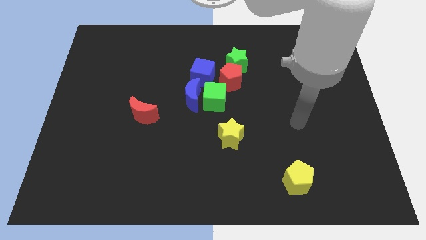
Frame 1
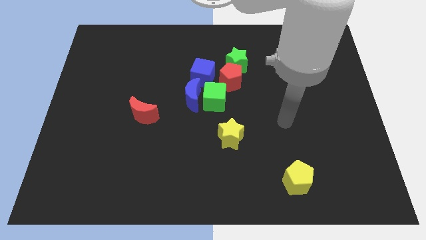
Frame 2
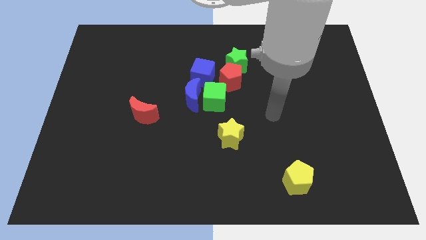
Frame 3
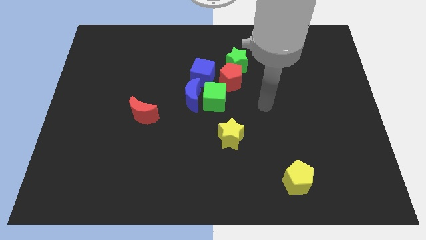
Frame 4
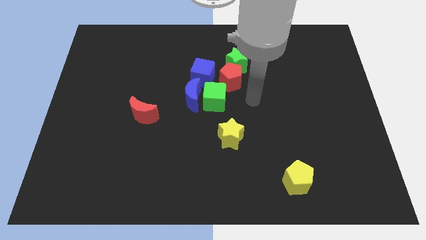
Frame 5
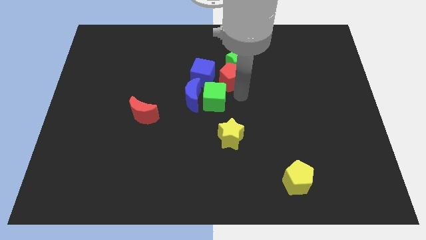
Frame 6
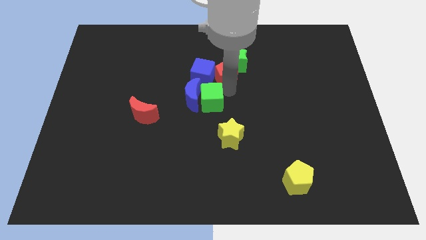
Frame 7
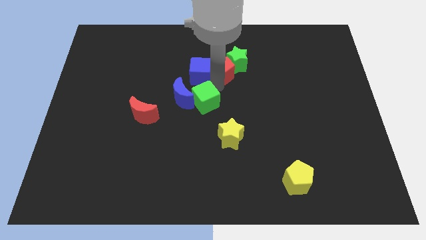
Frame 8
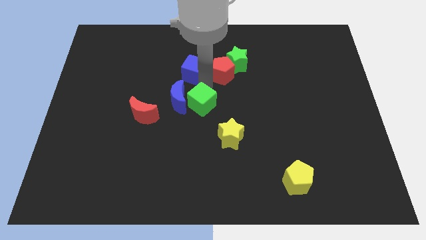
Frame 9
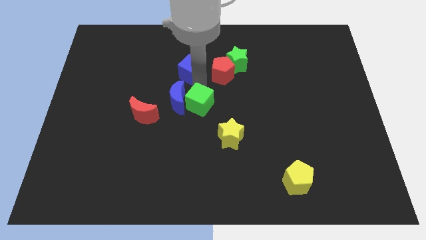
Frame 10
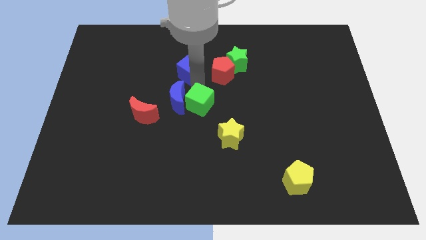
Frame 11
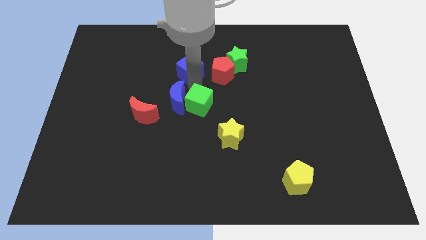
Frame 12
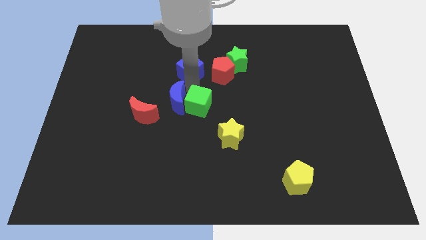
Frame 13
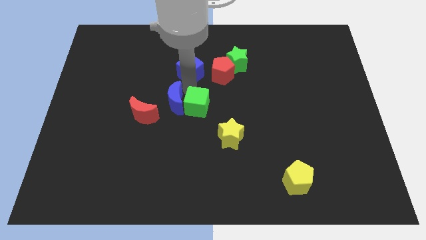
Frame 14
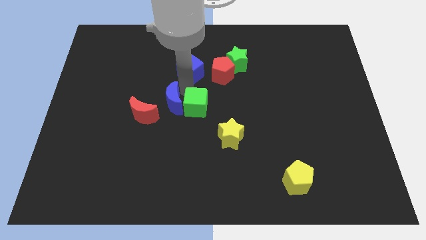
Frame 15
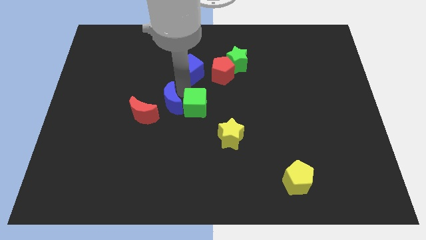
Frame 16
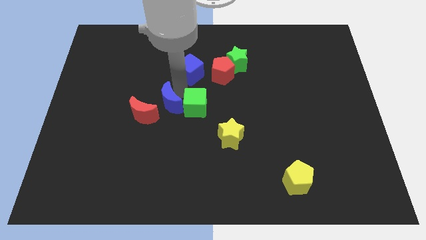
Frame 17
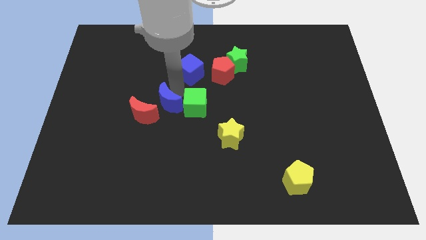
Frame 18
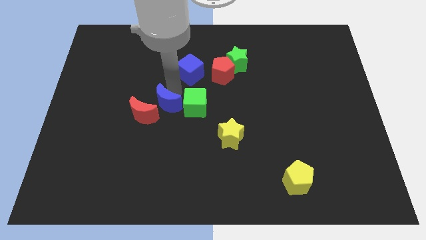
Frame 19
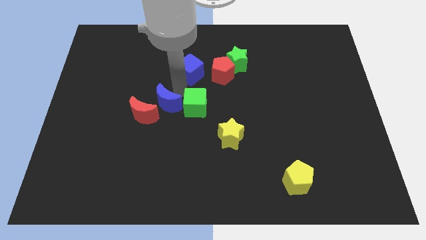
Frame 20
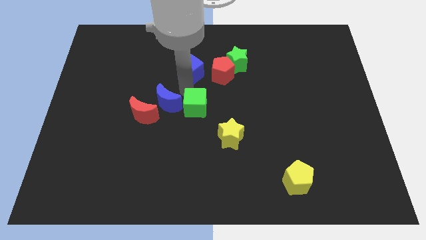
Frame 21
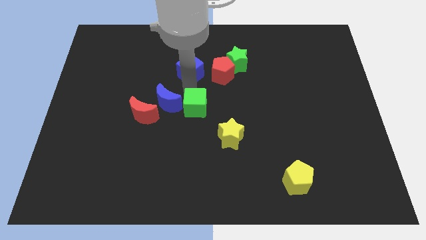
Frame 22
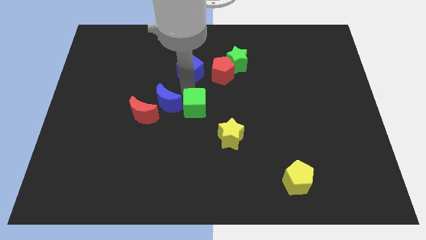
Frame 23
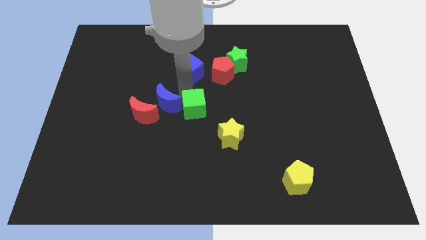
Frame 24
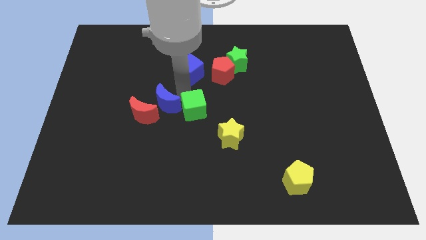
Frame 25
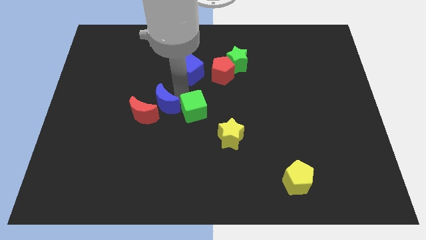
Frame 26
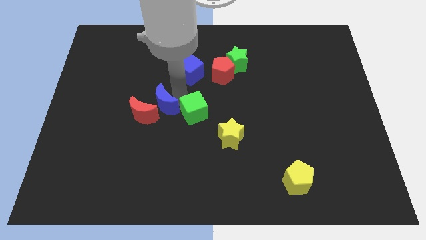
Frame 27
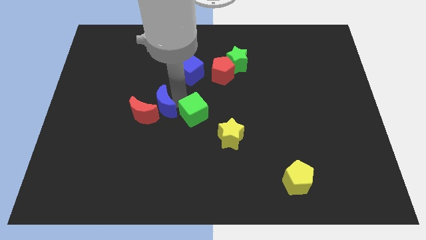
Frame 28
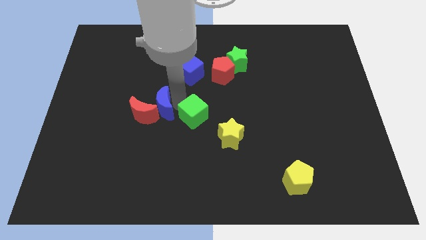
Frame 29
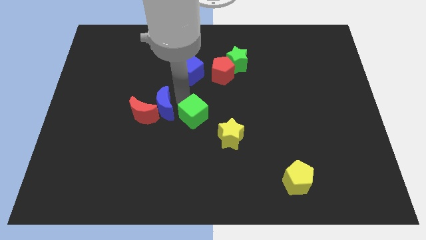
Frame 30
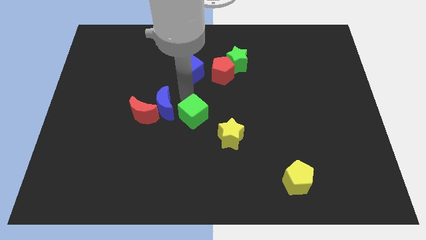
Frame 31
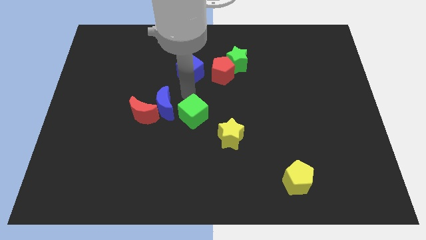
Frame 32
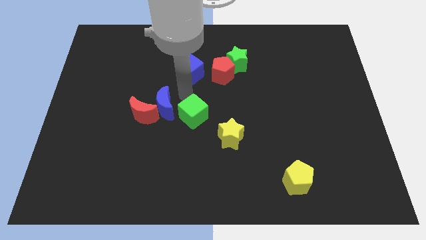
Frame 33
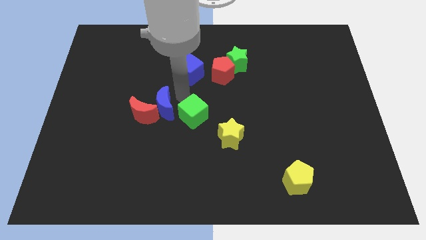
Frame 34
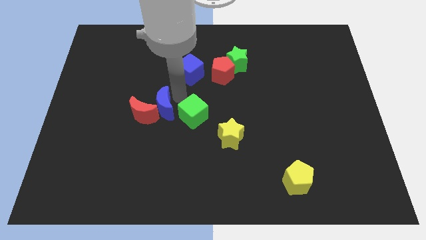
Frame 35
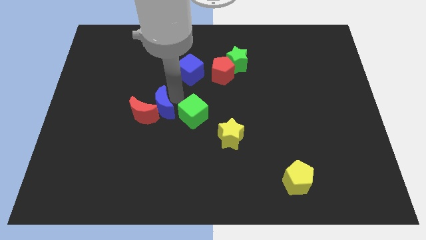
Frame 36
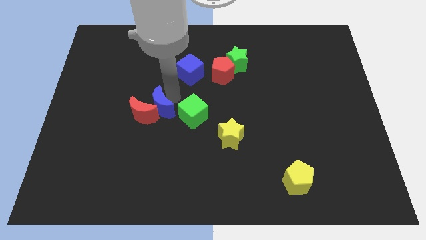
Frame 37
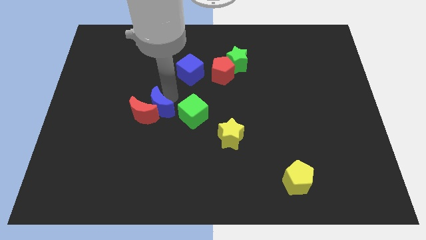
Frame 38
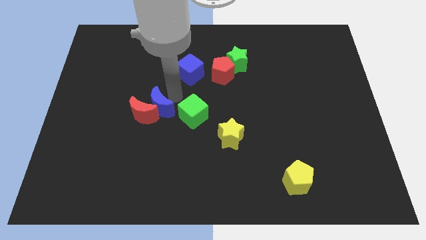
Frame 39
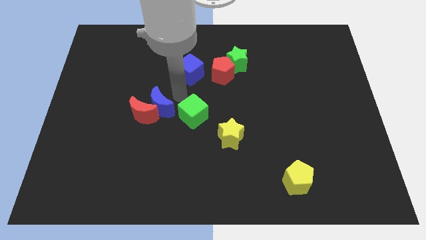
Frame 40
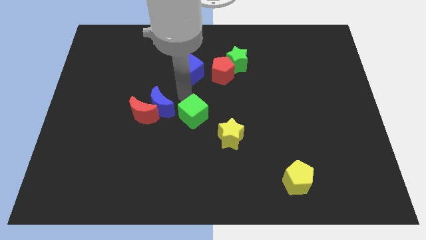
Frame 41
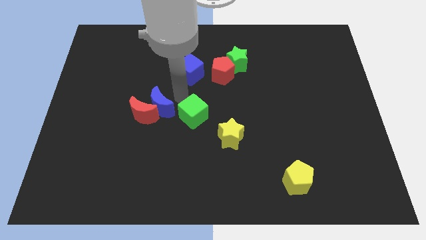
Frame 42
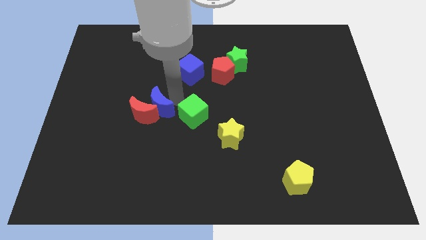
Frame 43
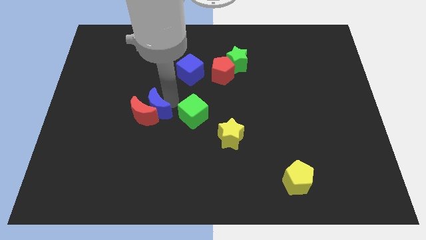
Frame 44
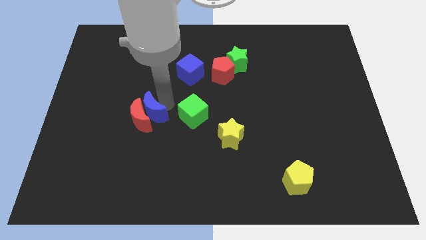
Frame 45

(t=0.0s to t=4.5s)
separate the blue moon from the green cube and blue cube

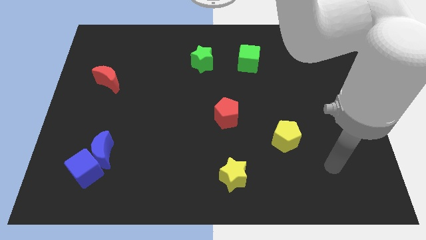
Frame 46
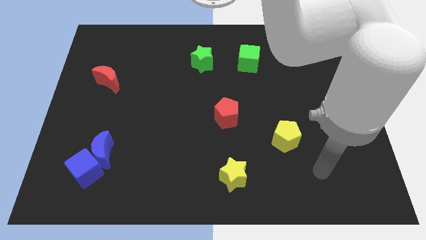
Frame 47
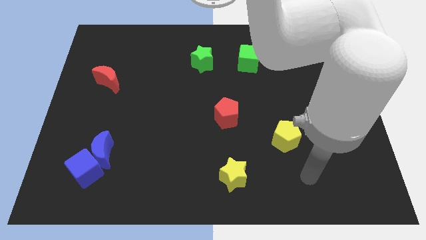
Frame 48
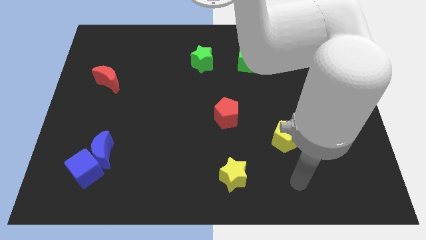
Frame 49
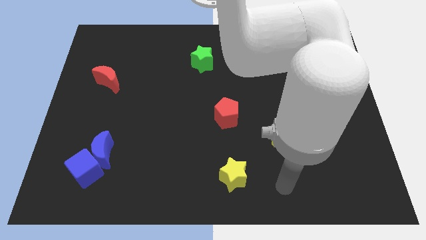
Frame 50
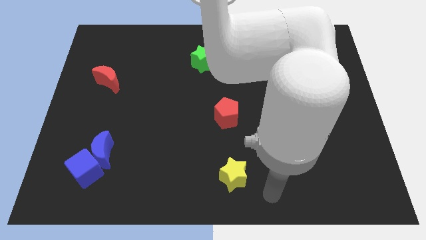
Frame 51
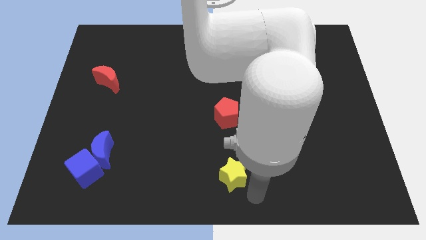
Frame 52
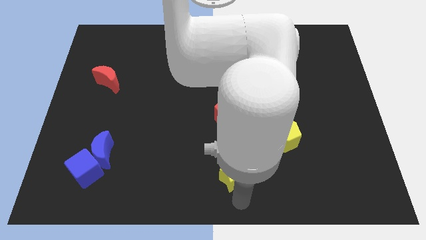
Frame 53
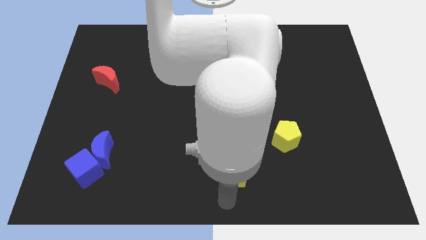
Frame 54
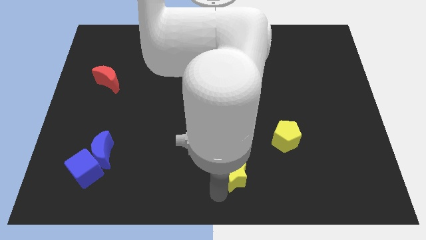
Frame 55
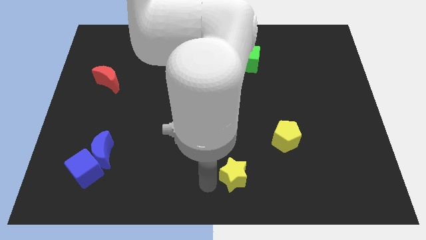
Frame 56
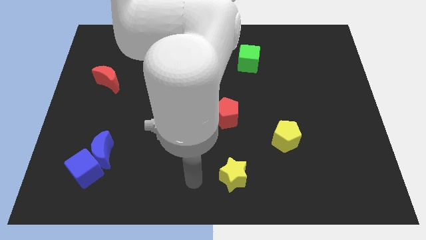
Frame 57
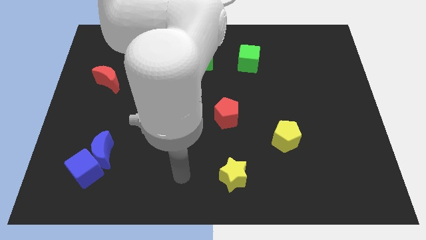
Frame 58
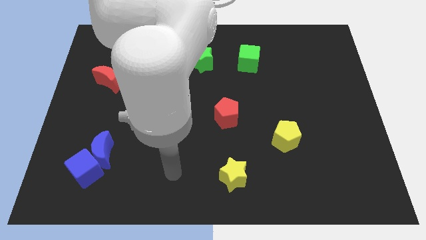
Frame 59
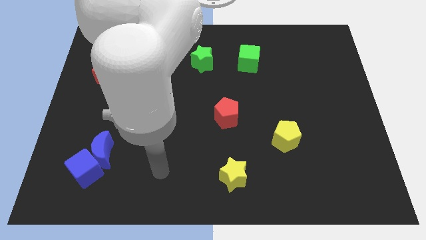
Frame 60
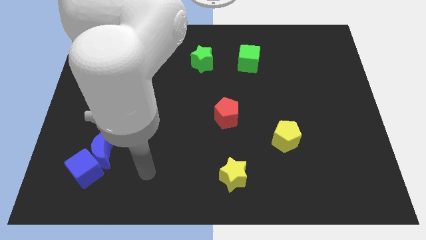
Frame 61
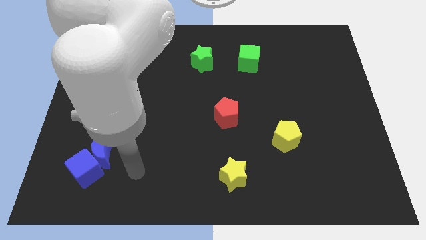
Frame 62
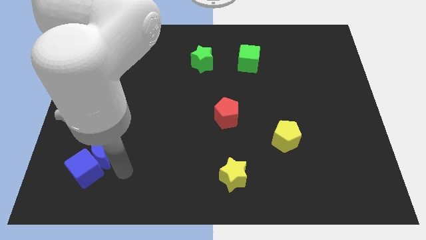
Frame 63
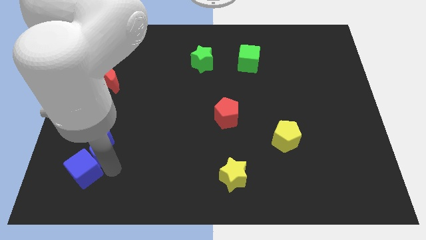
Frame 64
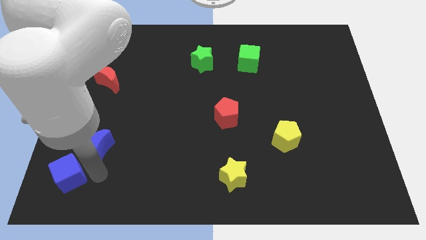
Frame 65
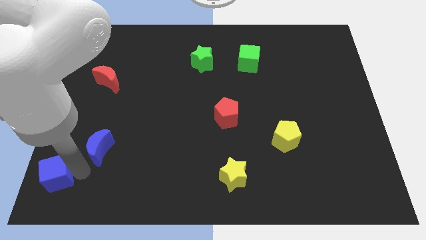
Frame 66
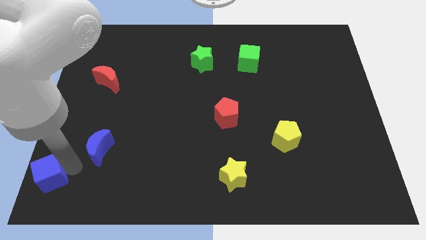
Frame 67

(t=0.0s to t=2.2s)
move the blue moon away from the blue cube

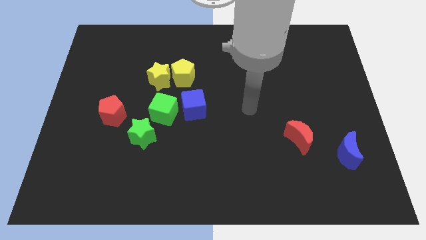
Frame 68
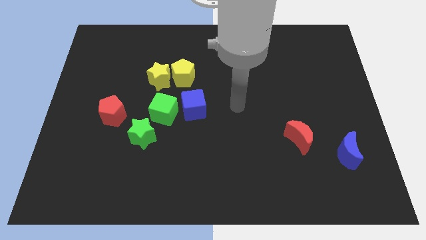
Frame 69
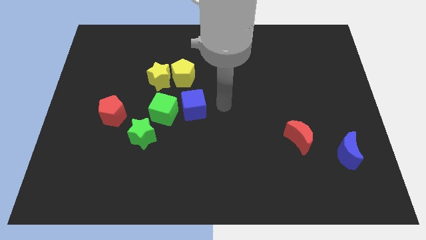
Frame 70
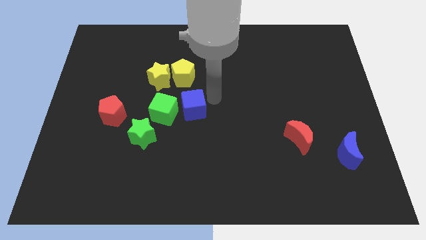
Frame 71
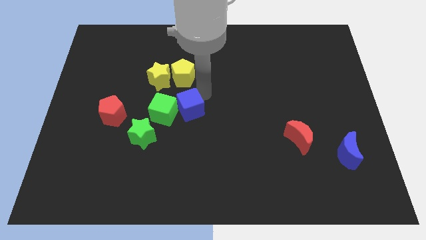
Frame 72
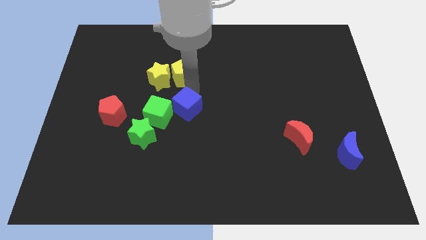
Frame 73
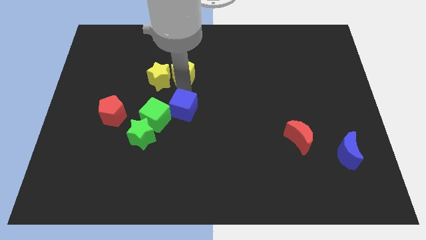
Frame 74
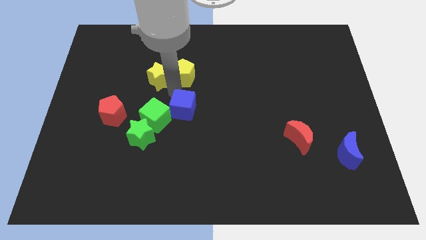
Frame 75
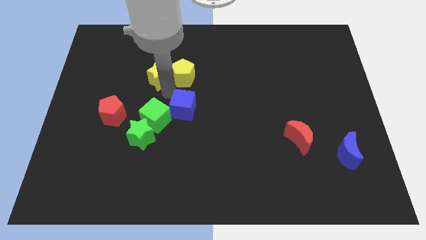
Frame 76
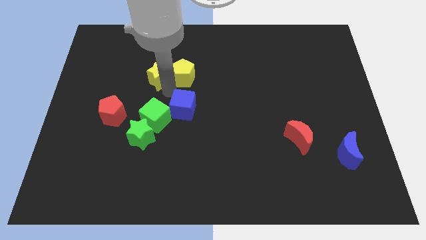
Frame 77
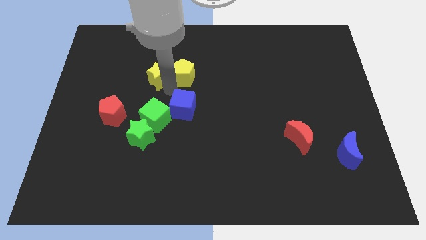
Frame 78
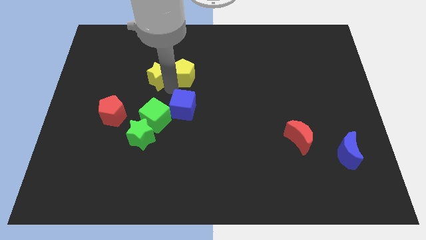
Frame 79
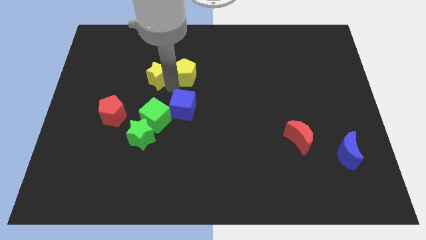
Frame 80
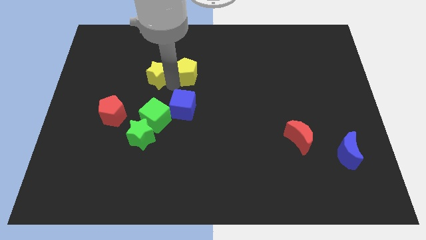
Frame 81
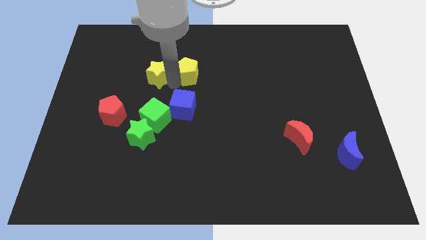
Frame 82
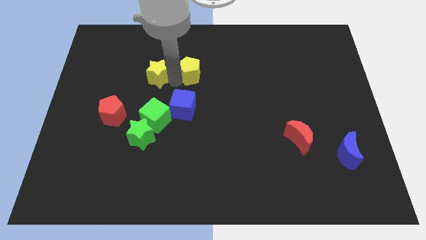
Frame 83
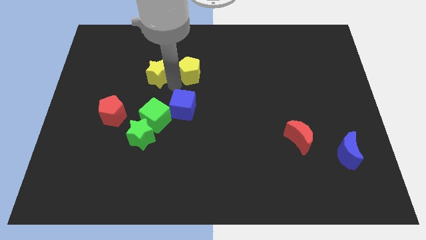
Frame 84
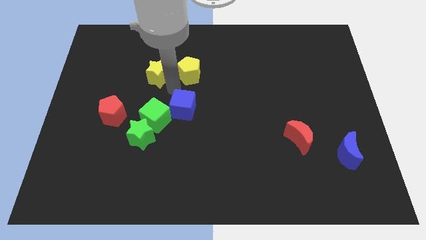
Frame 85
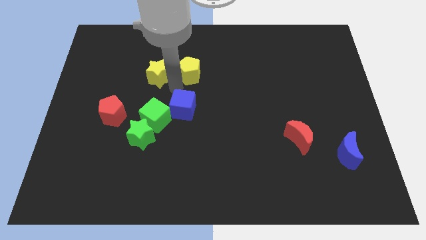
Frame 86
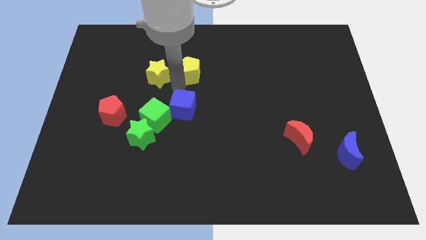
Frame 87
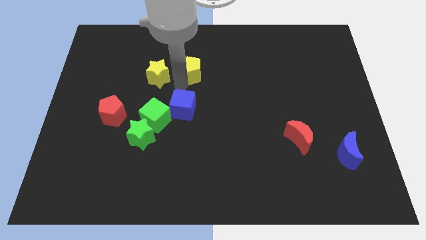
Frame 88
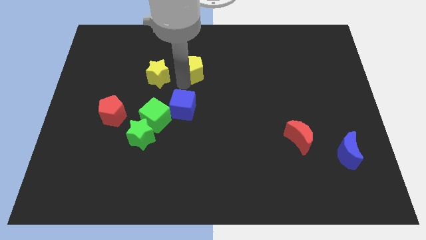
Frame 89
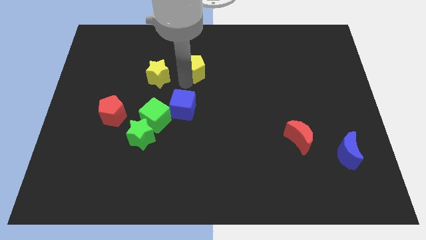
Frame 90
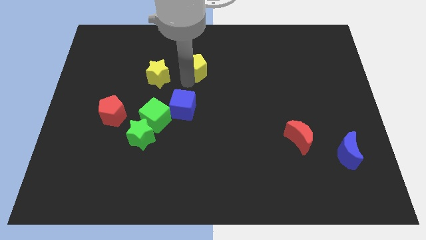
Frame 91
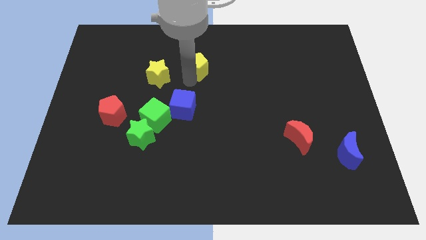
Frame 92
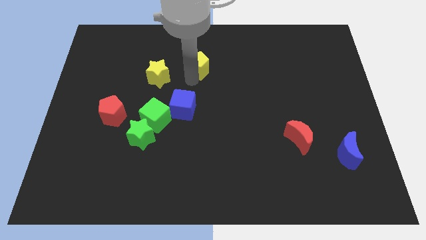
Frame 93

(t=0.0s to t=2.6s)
pull the yellow pentagon apart from the yellow star and blue cube
